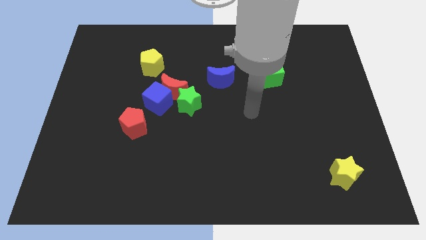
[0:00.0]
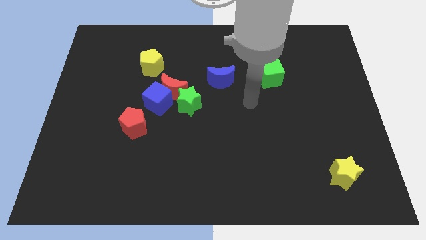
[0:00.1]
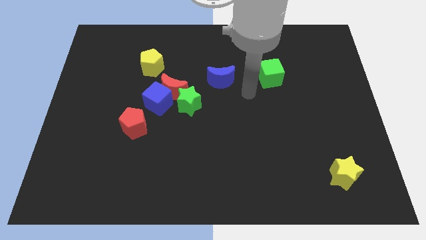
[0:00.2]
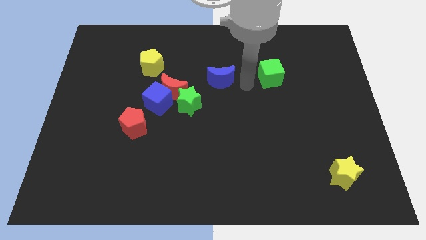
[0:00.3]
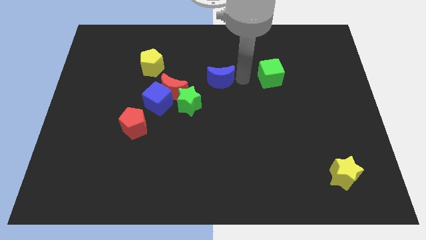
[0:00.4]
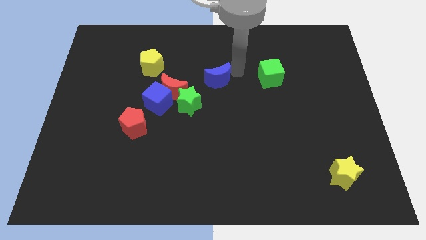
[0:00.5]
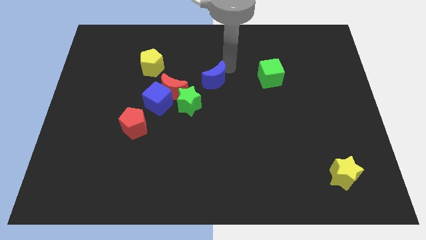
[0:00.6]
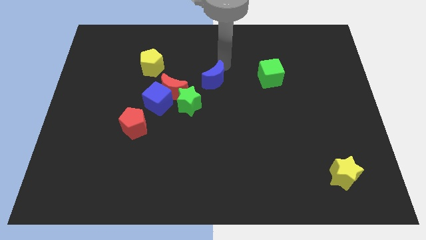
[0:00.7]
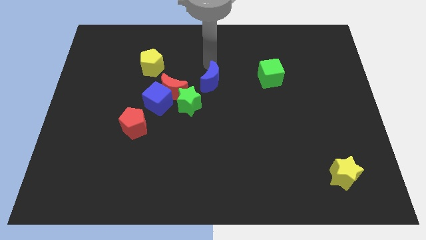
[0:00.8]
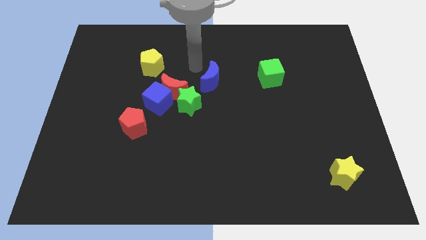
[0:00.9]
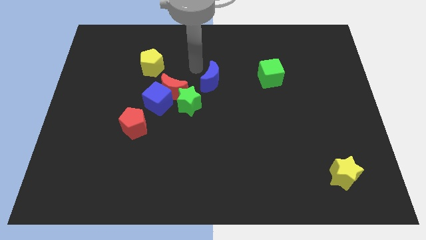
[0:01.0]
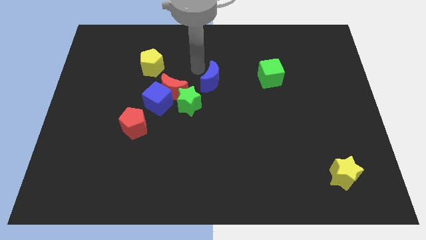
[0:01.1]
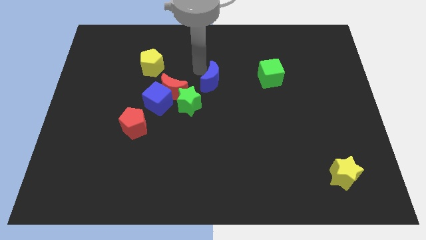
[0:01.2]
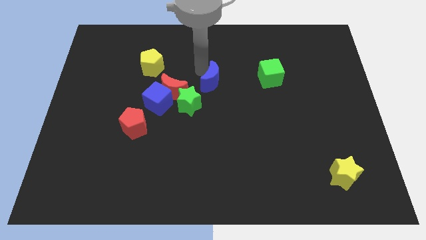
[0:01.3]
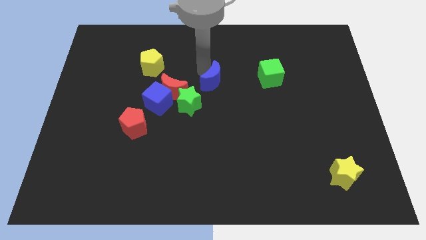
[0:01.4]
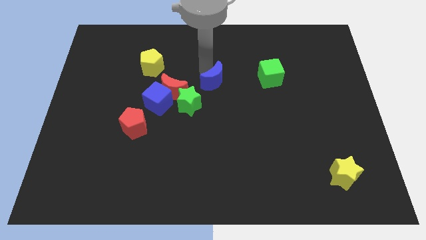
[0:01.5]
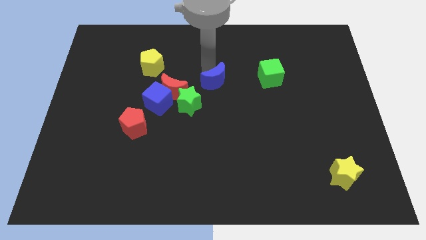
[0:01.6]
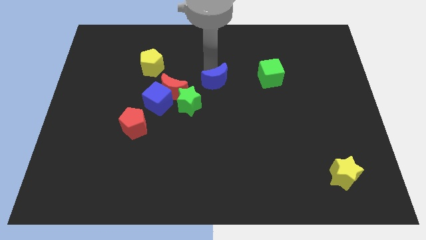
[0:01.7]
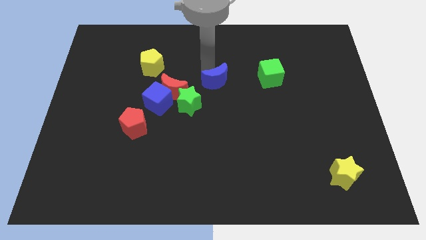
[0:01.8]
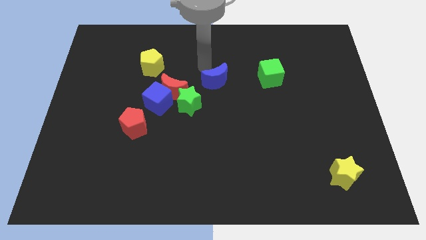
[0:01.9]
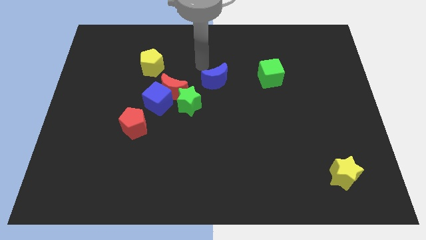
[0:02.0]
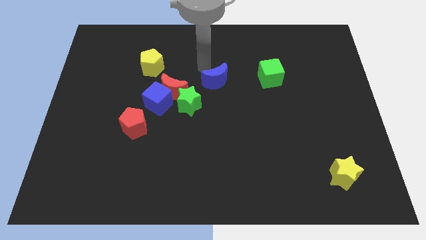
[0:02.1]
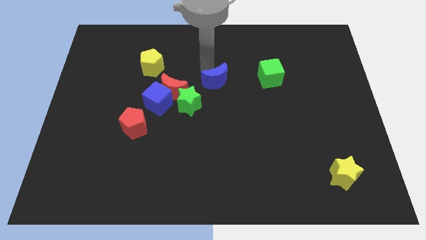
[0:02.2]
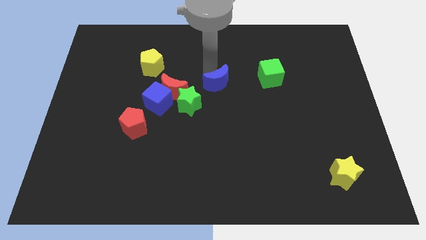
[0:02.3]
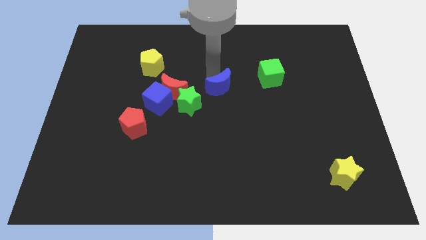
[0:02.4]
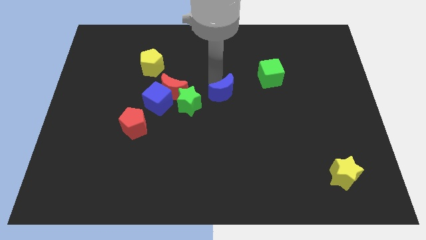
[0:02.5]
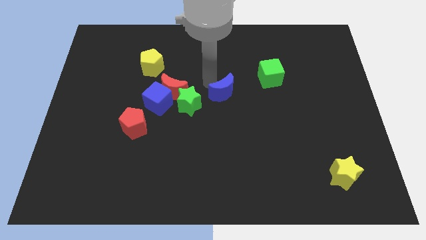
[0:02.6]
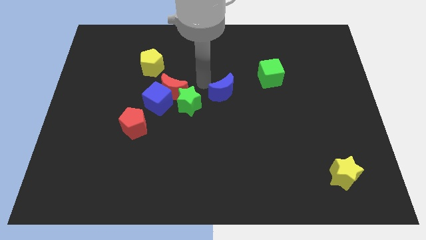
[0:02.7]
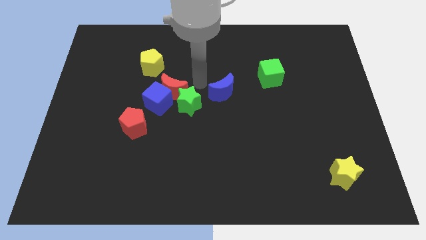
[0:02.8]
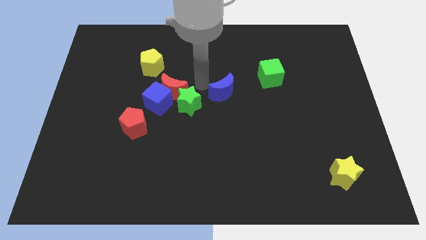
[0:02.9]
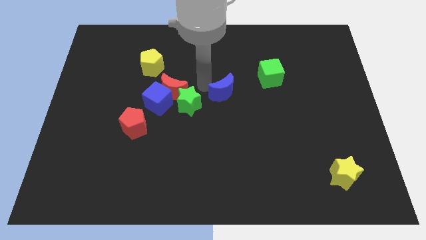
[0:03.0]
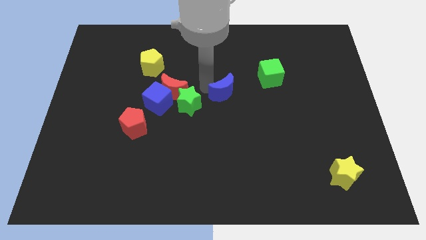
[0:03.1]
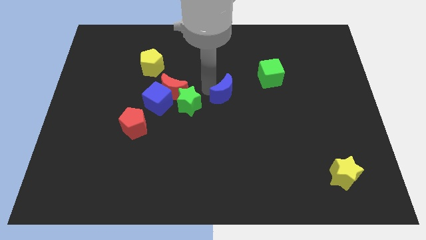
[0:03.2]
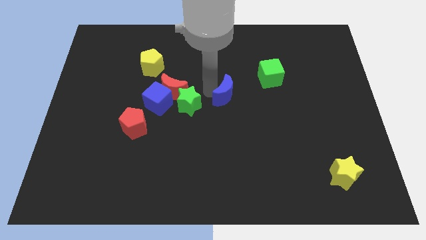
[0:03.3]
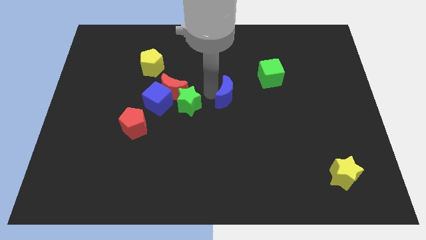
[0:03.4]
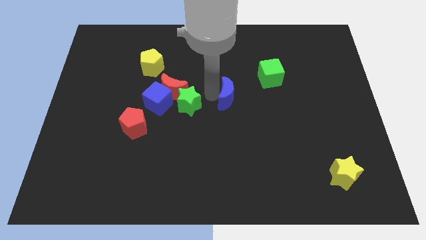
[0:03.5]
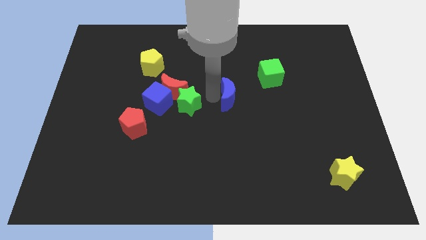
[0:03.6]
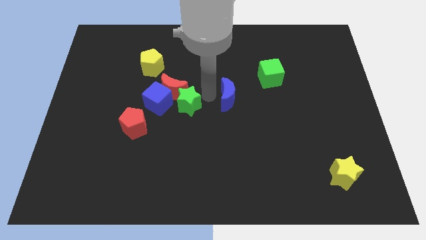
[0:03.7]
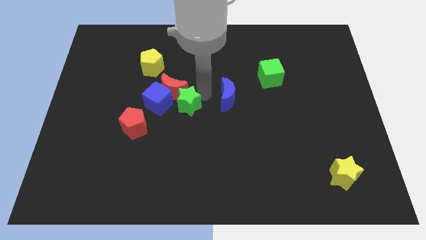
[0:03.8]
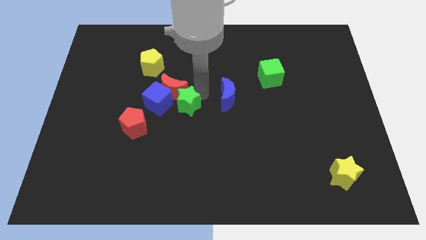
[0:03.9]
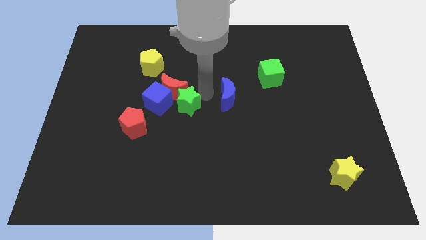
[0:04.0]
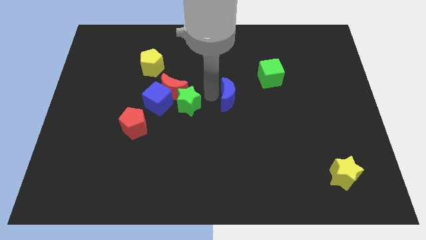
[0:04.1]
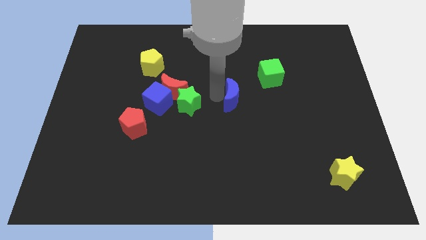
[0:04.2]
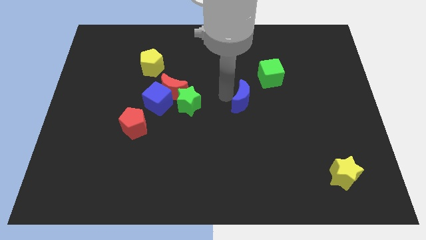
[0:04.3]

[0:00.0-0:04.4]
slightly move the blue moon down and right diagonally

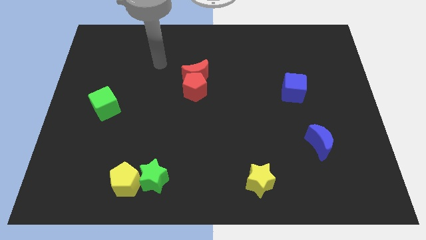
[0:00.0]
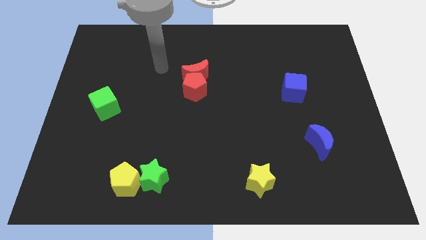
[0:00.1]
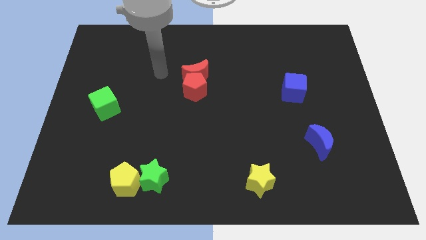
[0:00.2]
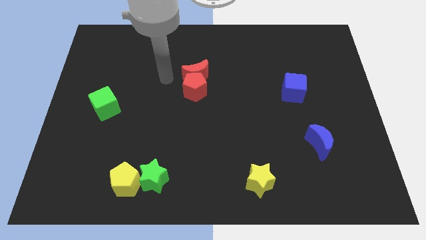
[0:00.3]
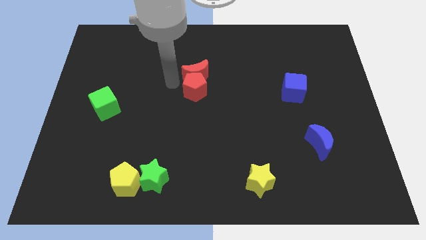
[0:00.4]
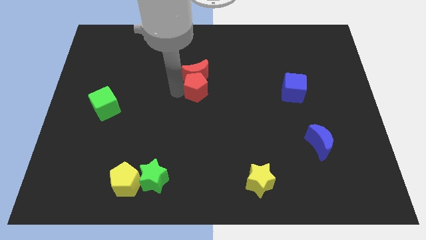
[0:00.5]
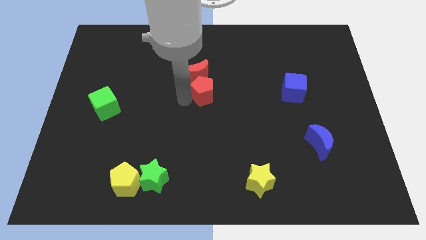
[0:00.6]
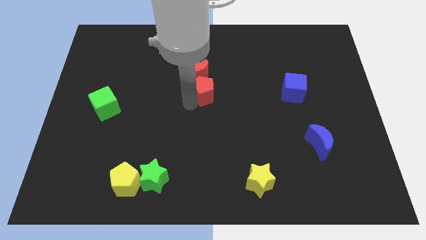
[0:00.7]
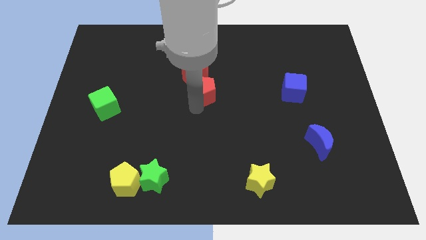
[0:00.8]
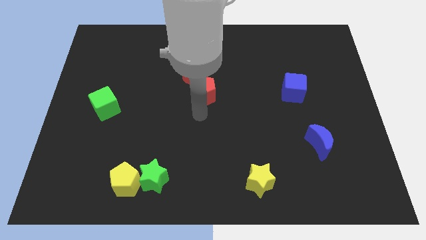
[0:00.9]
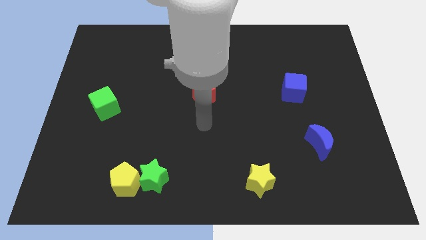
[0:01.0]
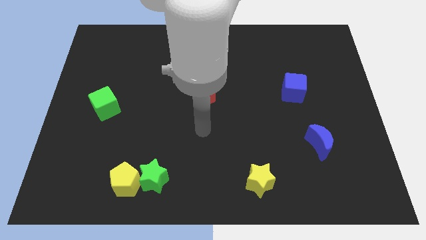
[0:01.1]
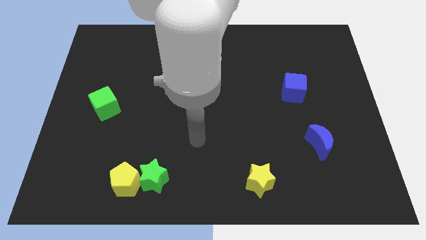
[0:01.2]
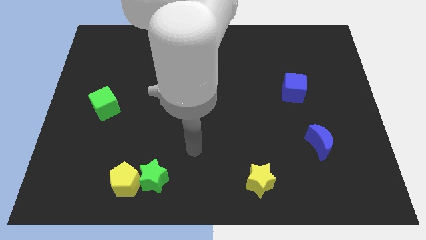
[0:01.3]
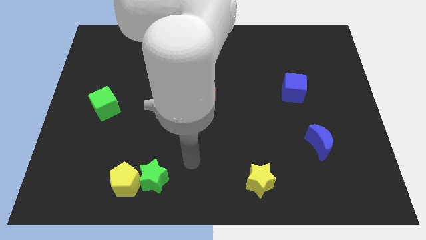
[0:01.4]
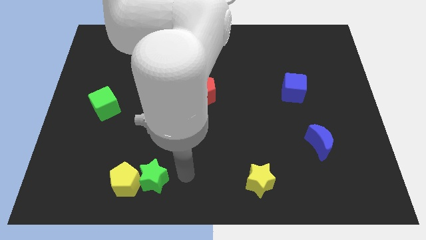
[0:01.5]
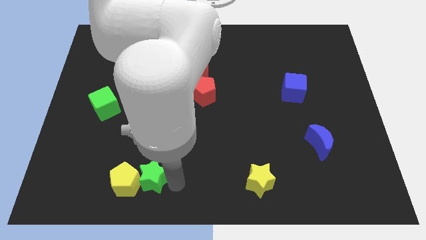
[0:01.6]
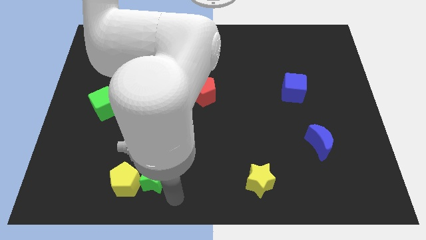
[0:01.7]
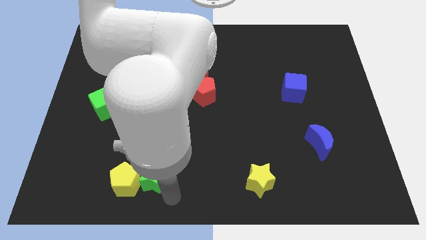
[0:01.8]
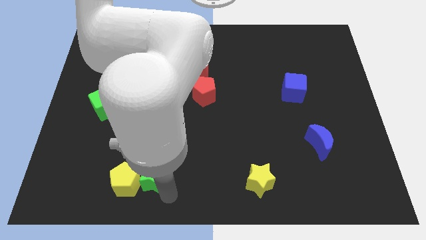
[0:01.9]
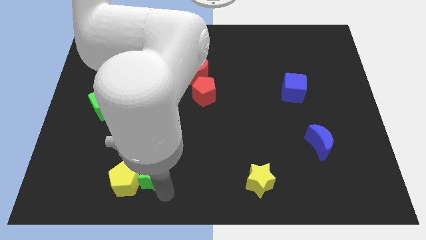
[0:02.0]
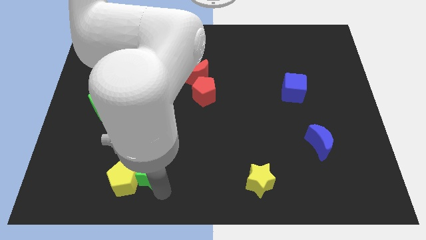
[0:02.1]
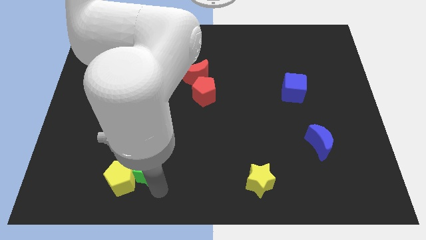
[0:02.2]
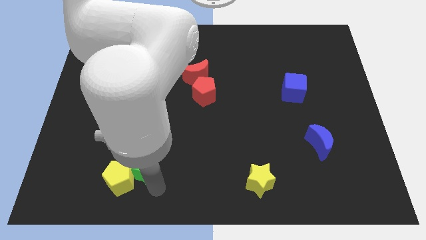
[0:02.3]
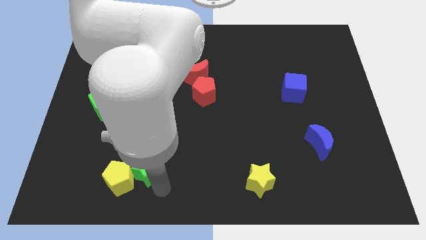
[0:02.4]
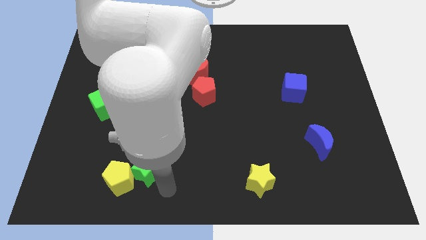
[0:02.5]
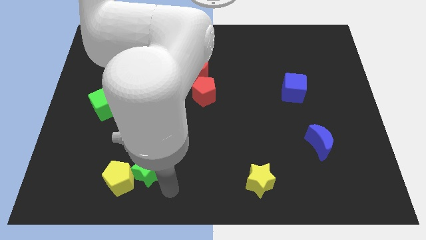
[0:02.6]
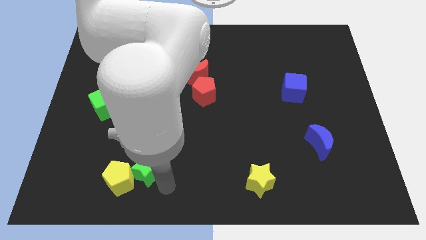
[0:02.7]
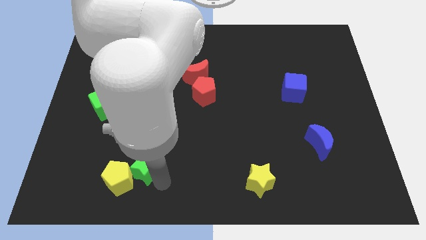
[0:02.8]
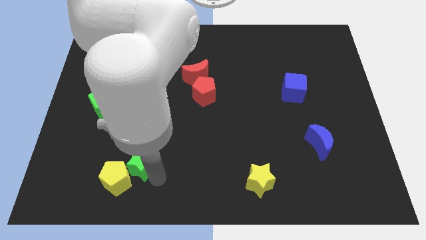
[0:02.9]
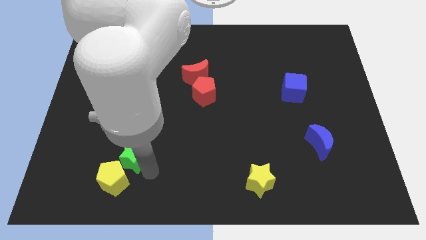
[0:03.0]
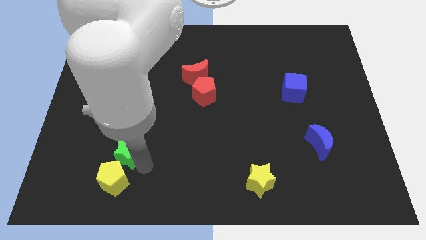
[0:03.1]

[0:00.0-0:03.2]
push the green star a little bit upwards and left

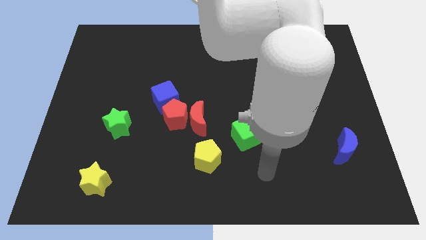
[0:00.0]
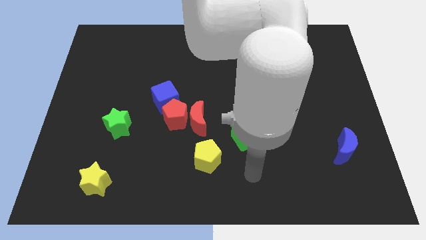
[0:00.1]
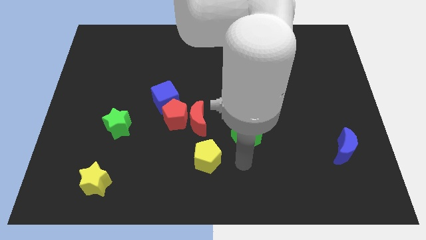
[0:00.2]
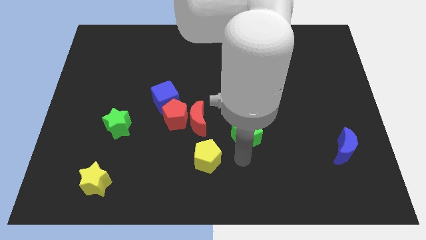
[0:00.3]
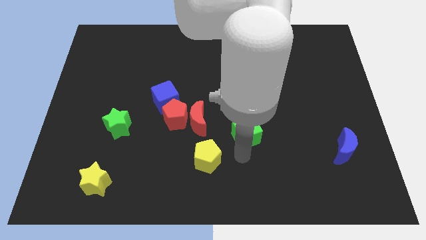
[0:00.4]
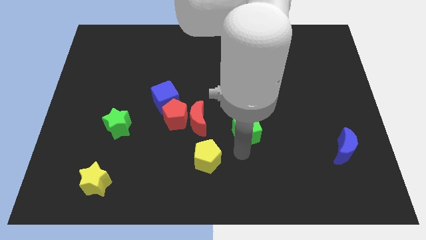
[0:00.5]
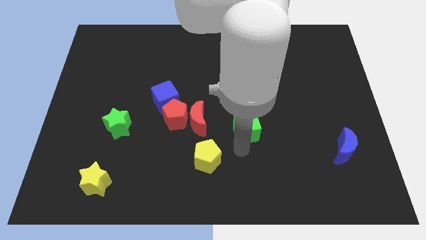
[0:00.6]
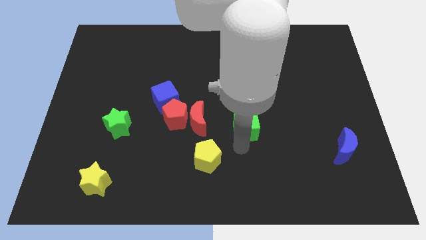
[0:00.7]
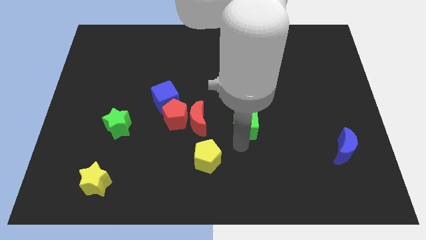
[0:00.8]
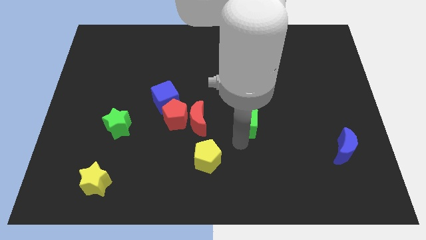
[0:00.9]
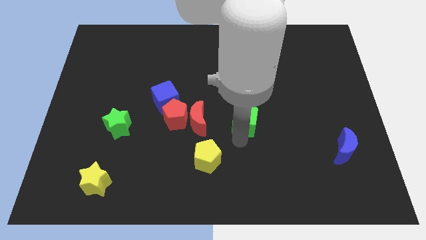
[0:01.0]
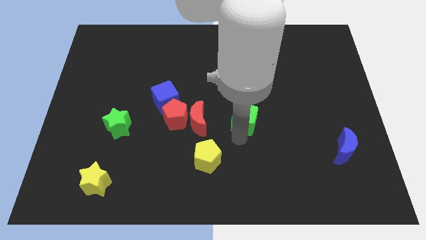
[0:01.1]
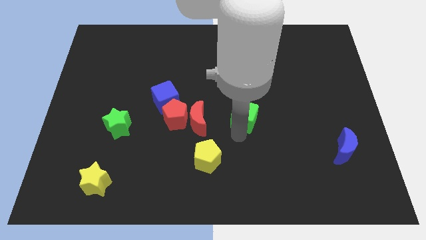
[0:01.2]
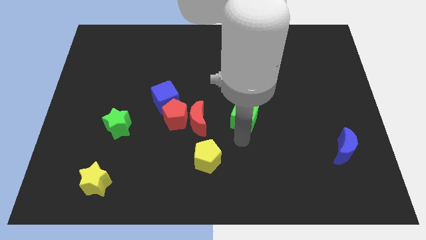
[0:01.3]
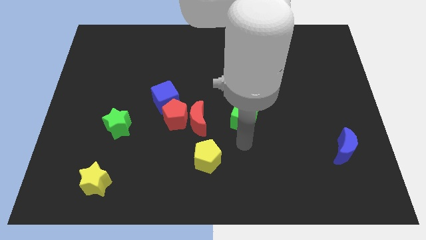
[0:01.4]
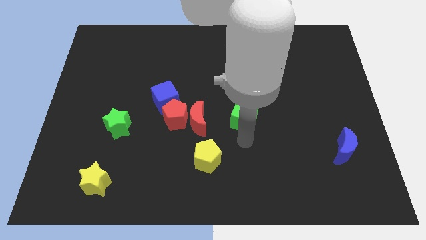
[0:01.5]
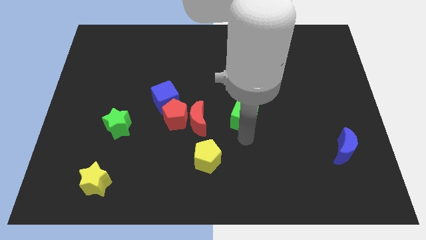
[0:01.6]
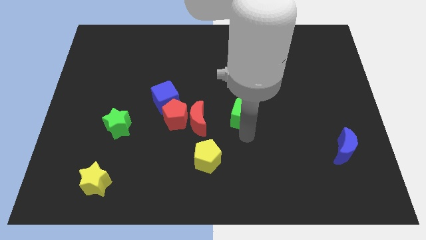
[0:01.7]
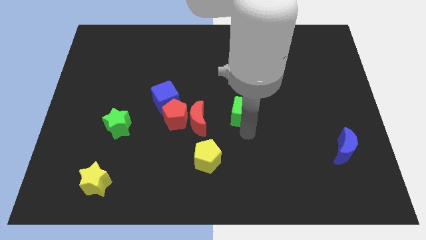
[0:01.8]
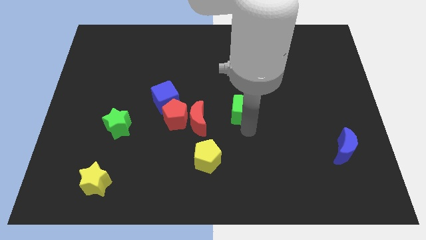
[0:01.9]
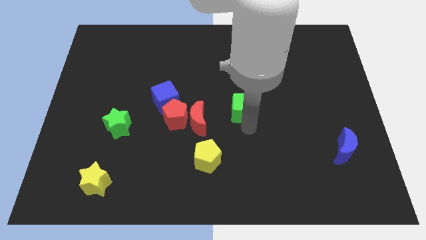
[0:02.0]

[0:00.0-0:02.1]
slide the green cube a little bit upwards
